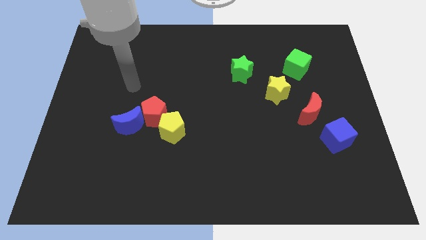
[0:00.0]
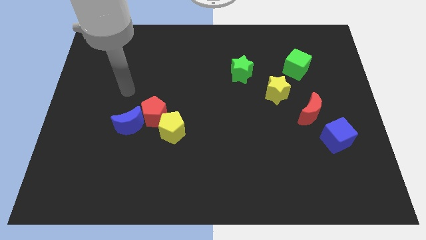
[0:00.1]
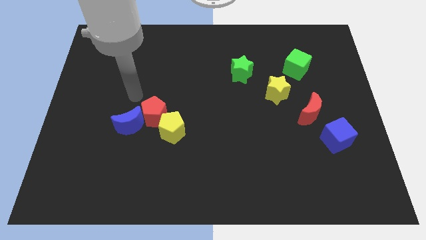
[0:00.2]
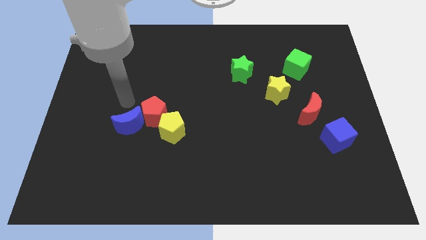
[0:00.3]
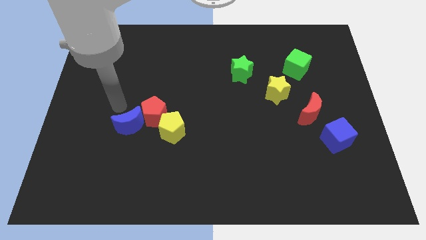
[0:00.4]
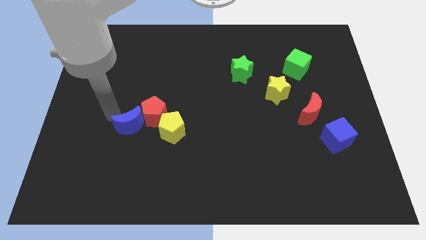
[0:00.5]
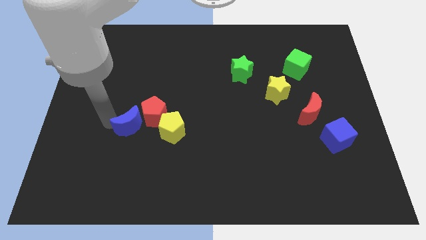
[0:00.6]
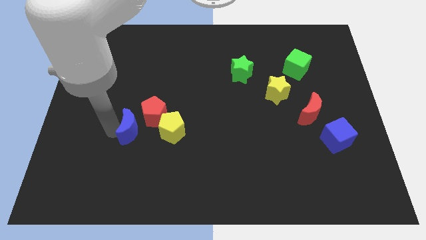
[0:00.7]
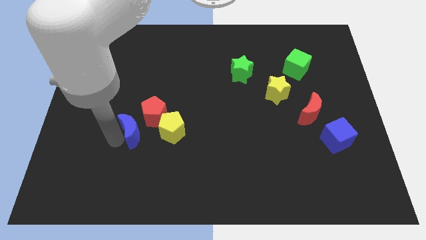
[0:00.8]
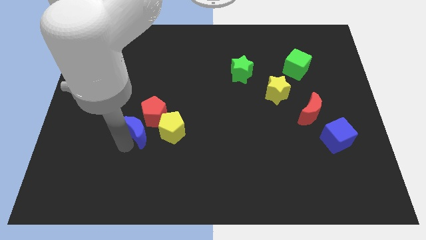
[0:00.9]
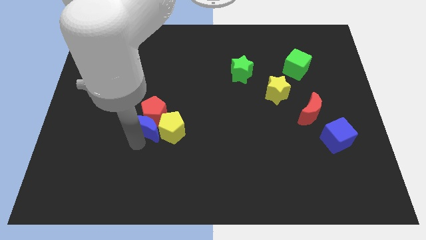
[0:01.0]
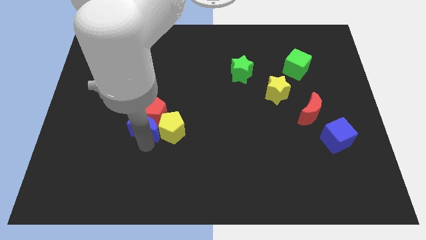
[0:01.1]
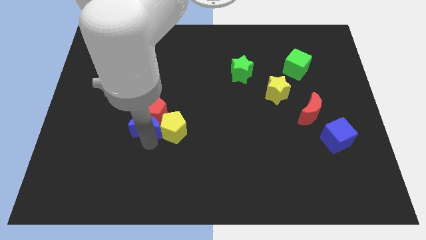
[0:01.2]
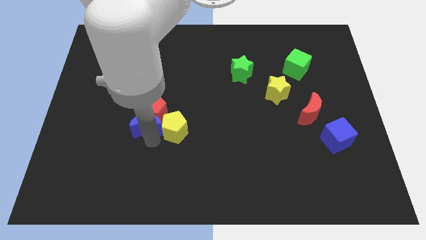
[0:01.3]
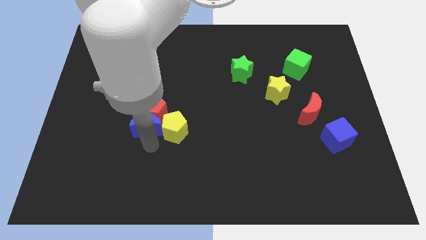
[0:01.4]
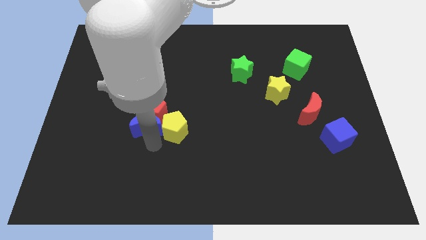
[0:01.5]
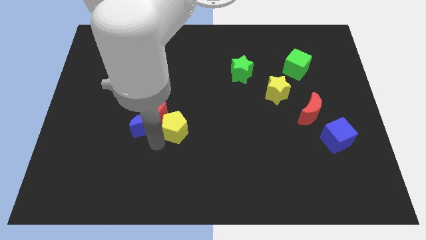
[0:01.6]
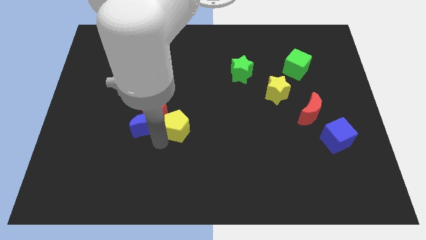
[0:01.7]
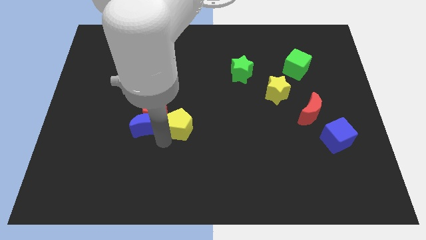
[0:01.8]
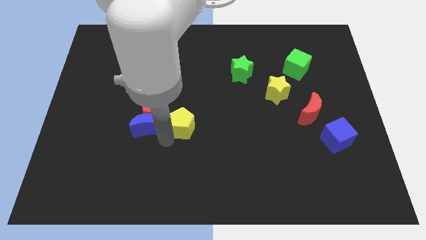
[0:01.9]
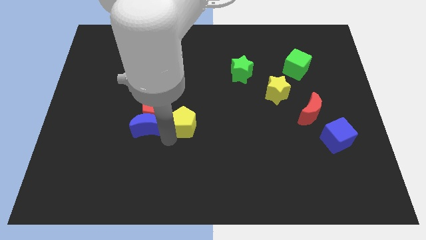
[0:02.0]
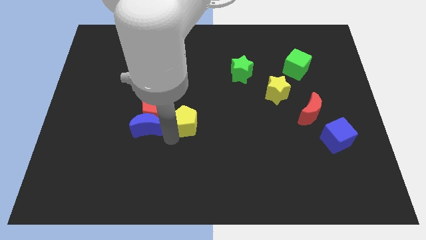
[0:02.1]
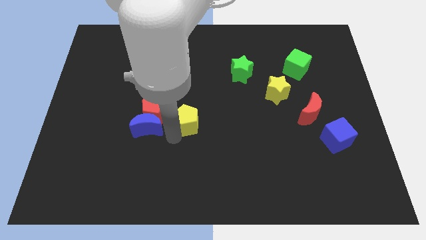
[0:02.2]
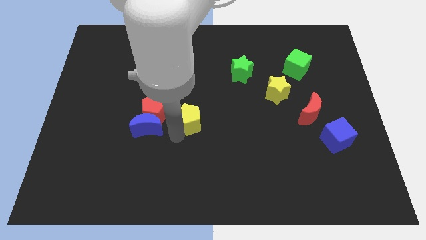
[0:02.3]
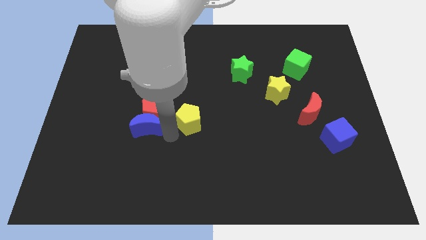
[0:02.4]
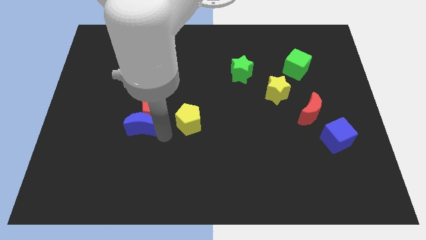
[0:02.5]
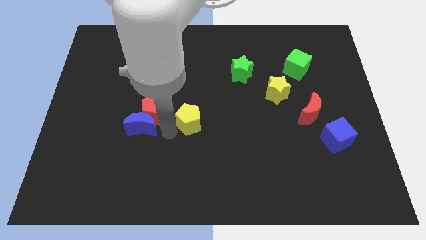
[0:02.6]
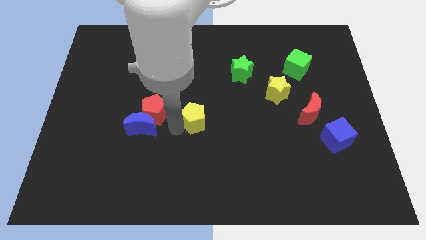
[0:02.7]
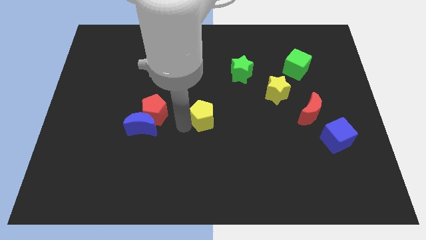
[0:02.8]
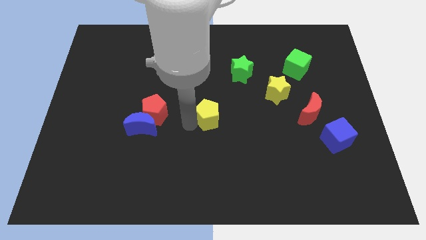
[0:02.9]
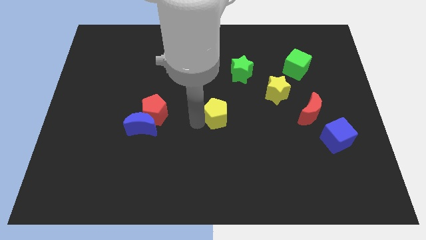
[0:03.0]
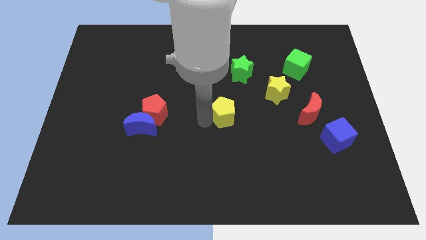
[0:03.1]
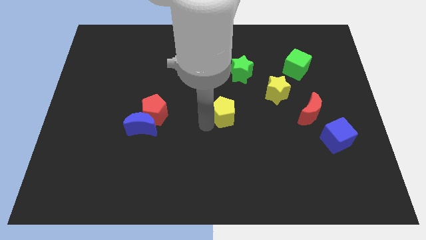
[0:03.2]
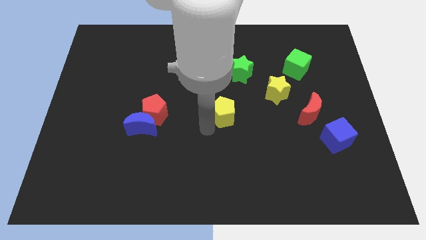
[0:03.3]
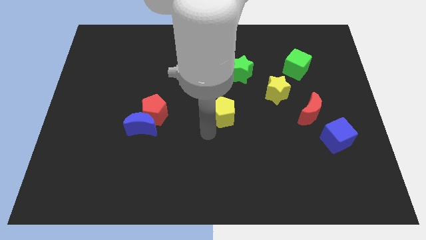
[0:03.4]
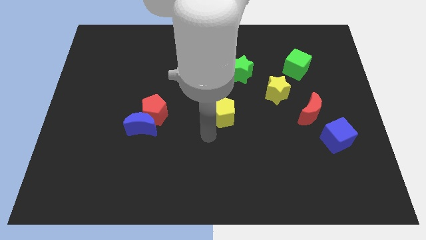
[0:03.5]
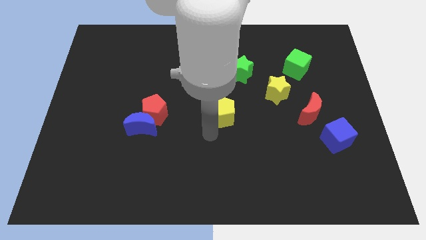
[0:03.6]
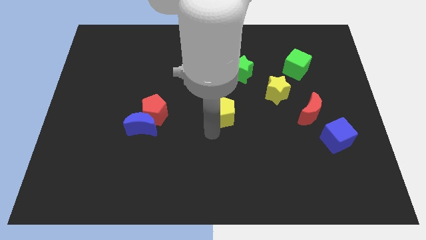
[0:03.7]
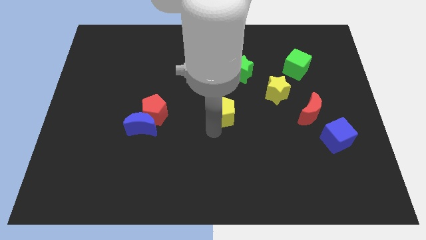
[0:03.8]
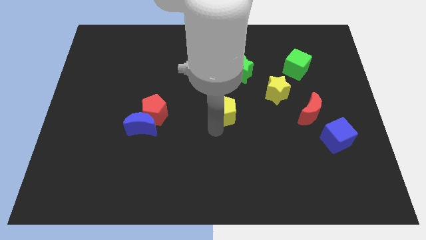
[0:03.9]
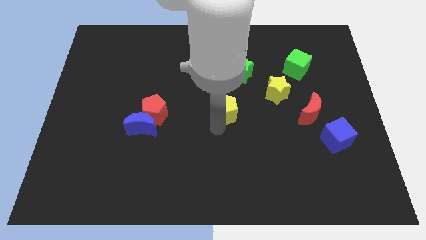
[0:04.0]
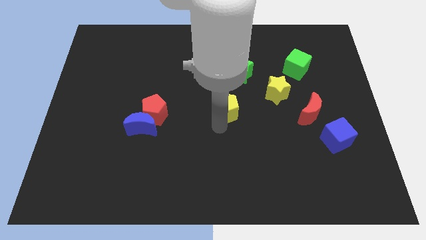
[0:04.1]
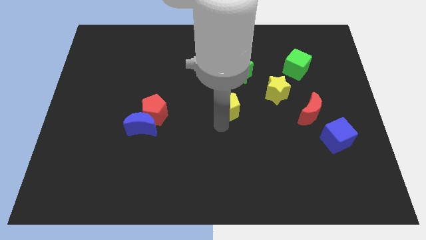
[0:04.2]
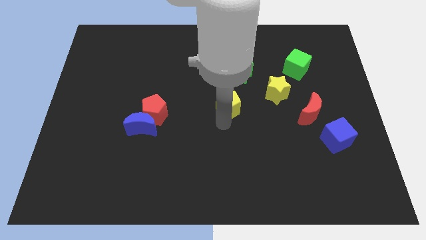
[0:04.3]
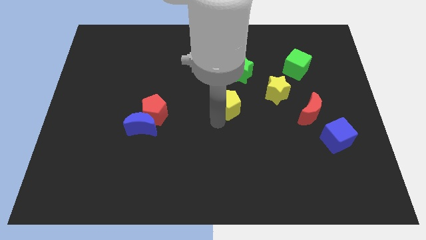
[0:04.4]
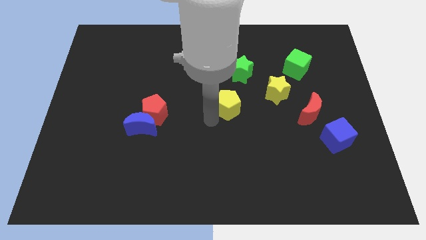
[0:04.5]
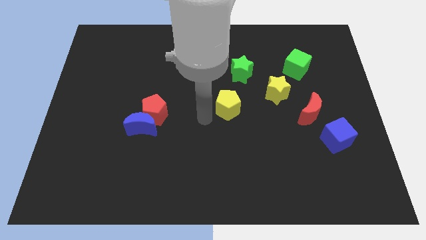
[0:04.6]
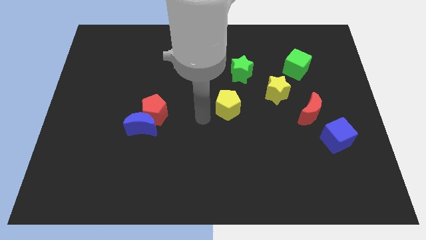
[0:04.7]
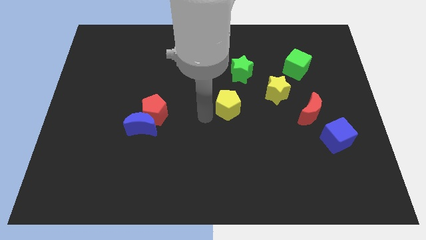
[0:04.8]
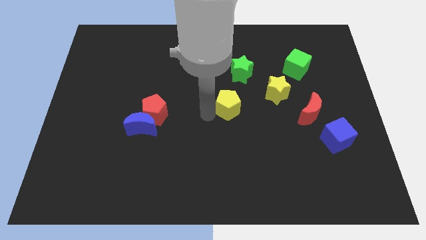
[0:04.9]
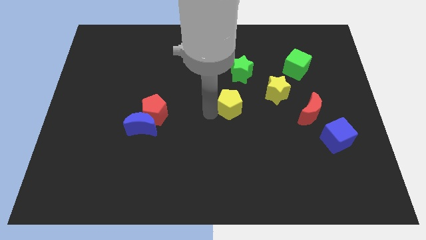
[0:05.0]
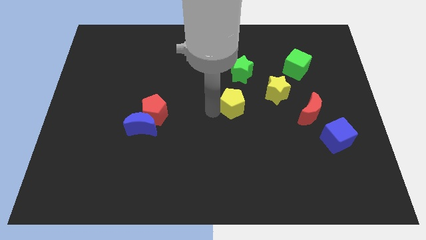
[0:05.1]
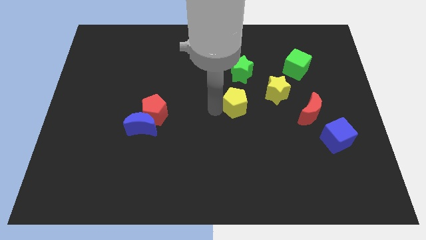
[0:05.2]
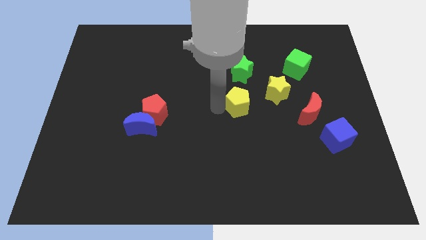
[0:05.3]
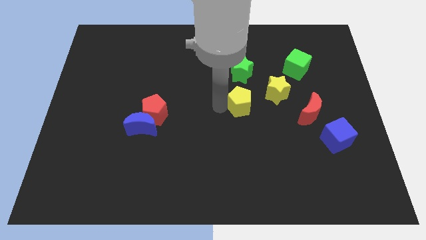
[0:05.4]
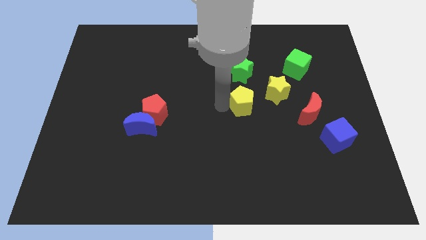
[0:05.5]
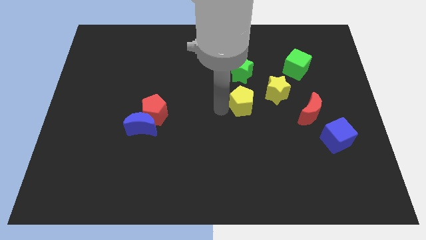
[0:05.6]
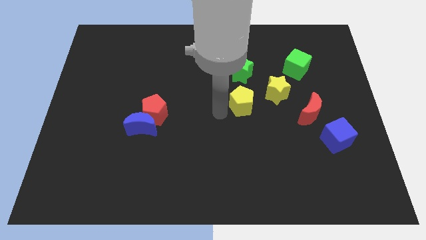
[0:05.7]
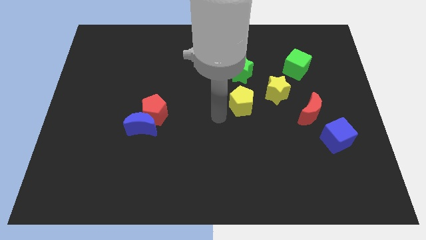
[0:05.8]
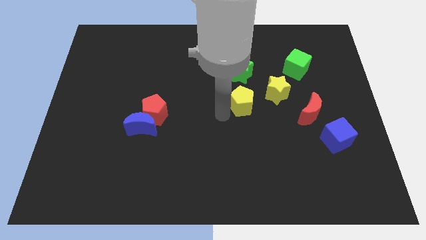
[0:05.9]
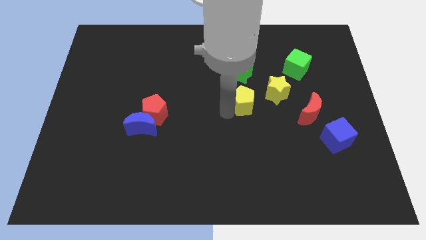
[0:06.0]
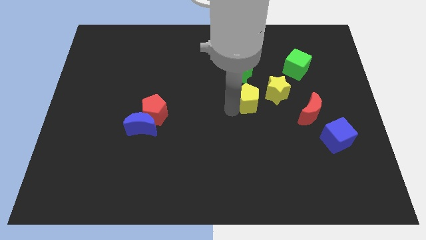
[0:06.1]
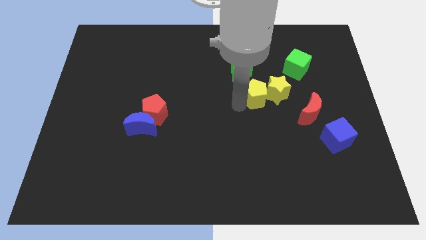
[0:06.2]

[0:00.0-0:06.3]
push the yellow pentagon to the yellow star
